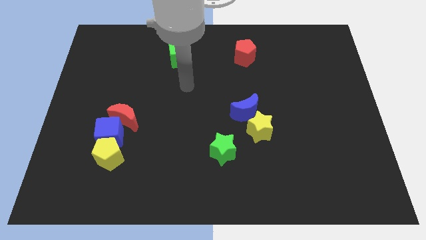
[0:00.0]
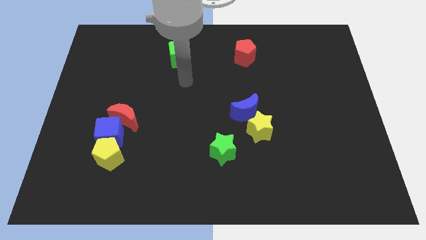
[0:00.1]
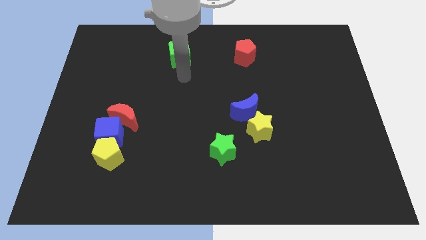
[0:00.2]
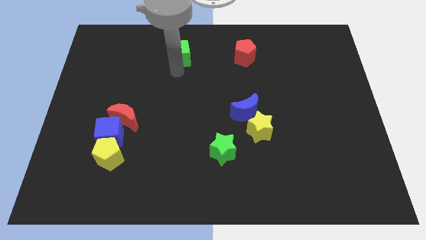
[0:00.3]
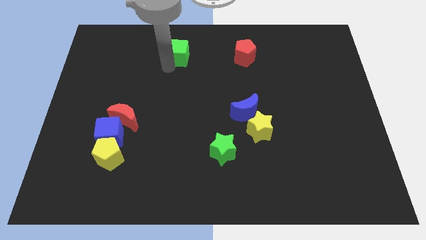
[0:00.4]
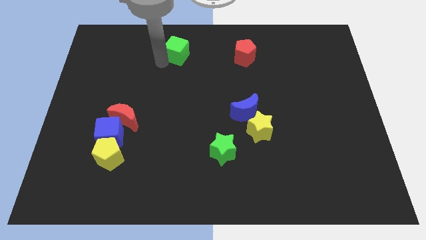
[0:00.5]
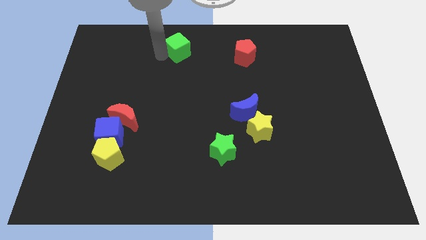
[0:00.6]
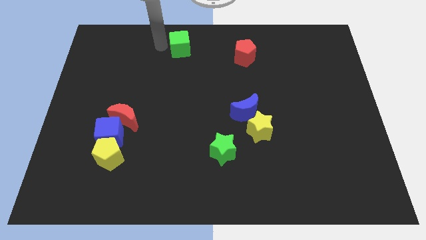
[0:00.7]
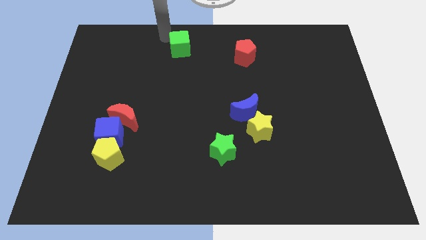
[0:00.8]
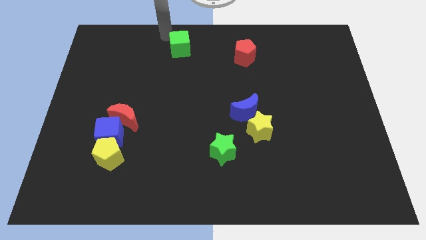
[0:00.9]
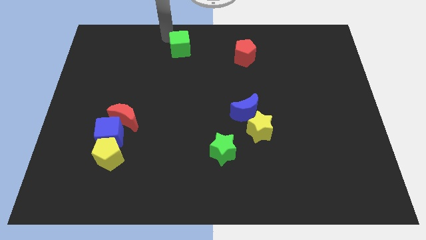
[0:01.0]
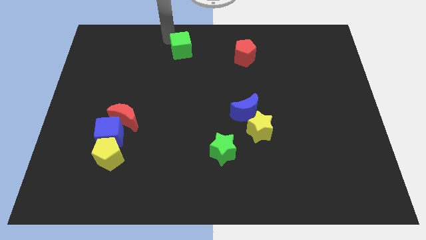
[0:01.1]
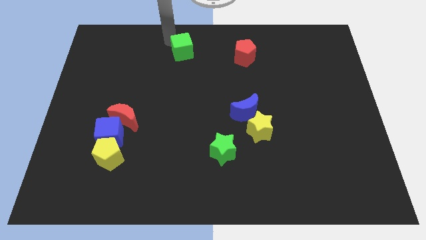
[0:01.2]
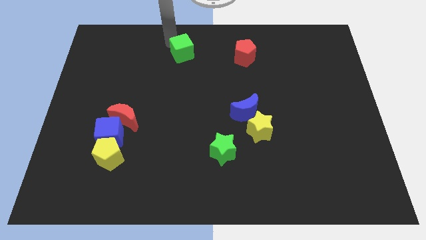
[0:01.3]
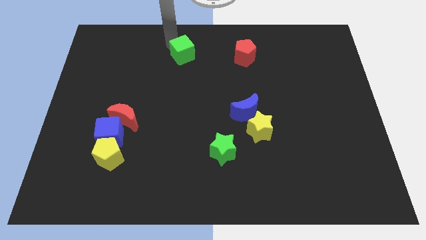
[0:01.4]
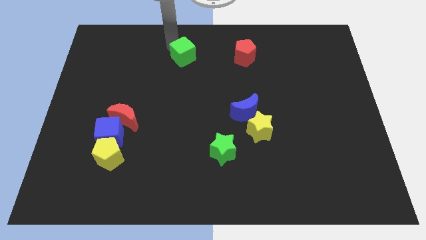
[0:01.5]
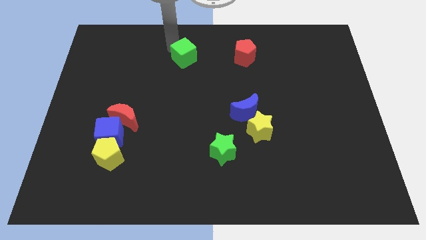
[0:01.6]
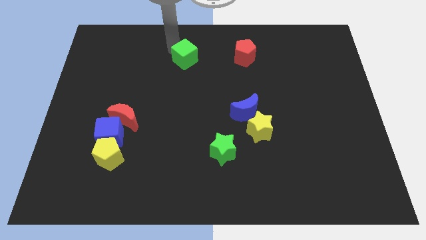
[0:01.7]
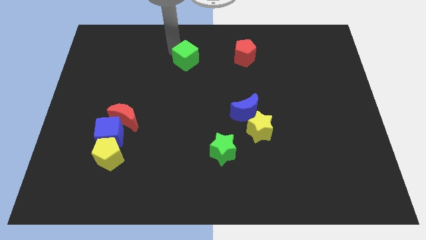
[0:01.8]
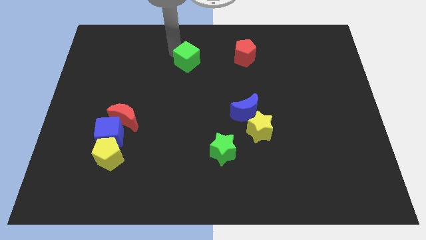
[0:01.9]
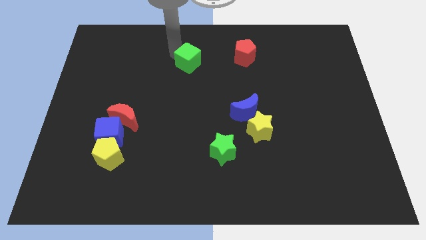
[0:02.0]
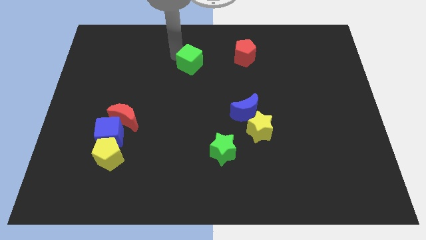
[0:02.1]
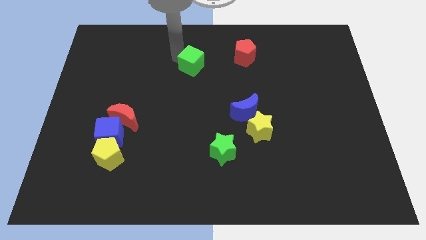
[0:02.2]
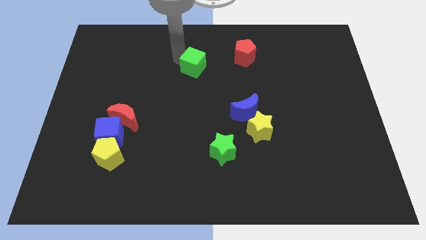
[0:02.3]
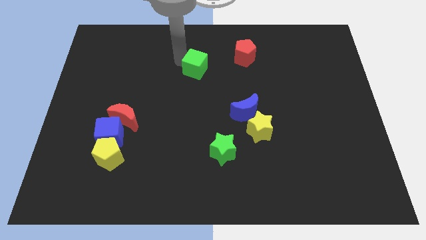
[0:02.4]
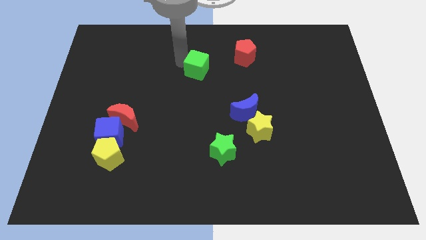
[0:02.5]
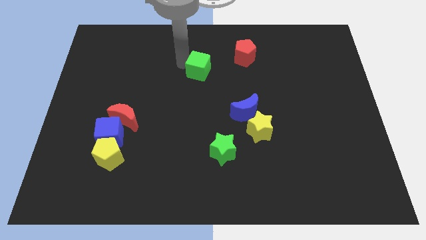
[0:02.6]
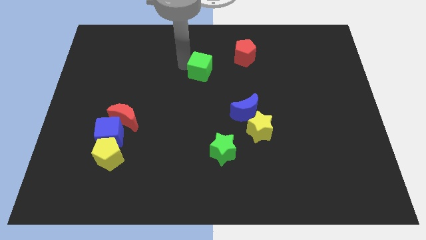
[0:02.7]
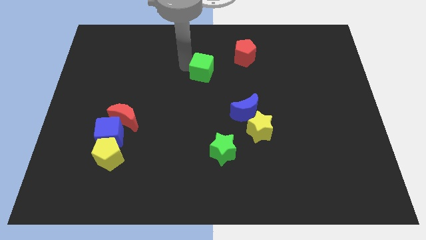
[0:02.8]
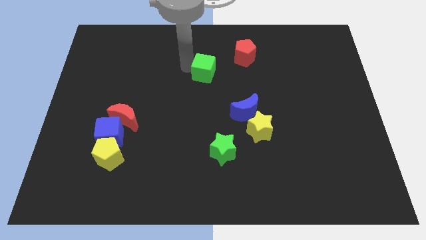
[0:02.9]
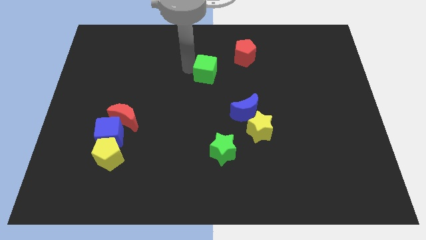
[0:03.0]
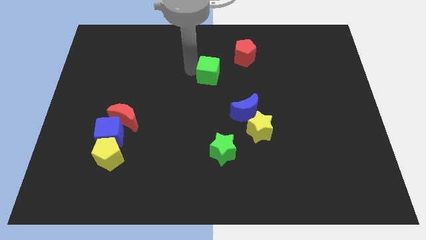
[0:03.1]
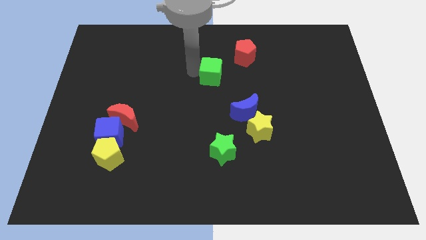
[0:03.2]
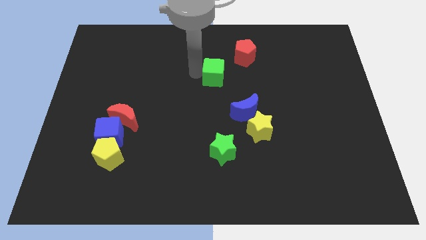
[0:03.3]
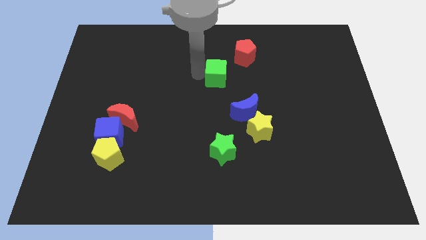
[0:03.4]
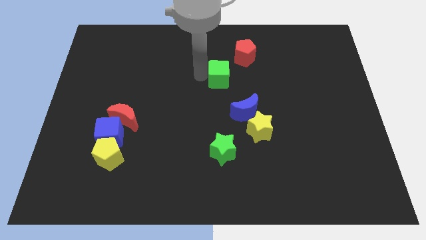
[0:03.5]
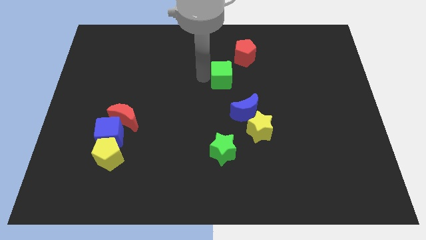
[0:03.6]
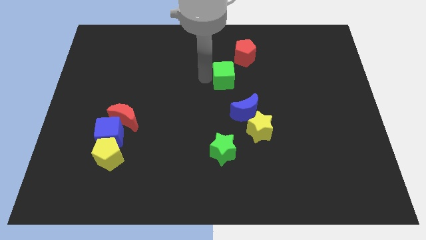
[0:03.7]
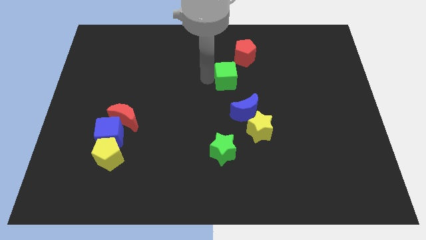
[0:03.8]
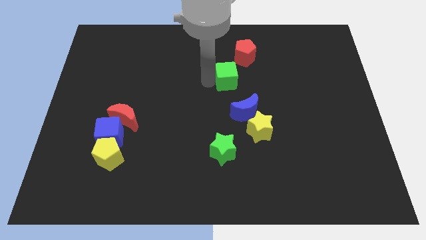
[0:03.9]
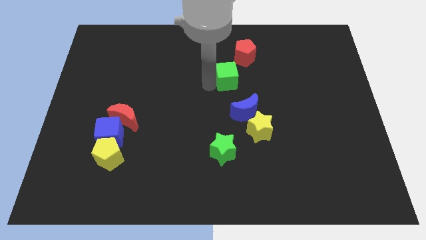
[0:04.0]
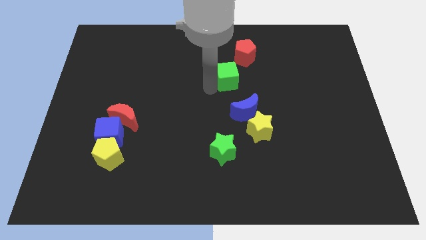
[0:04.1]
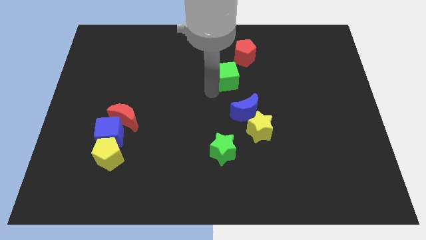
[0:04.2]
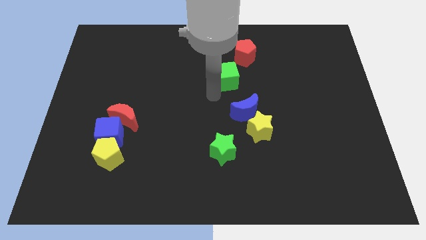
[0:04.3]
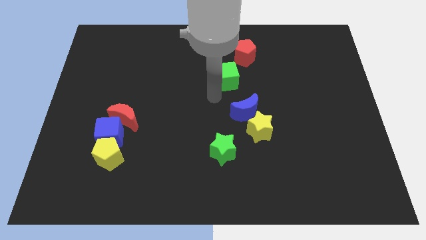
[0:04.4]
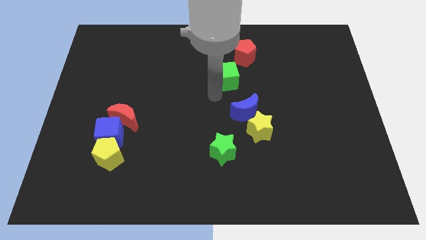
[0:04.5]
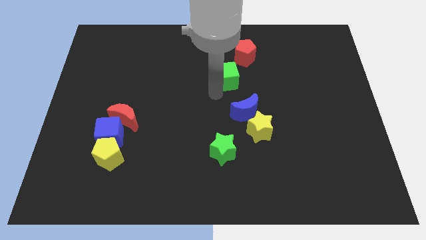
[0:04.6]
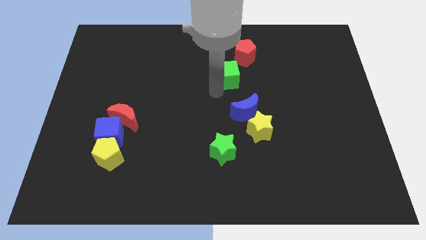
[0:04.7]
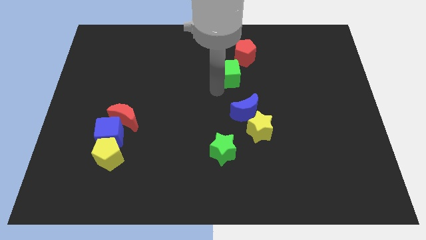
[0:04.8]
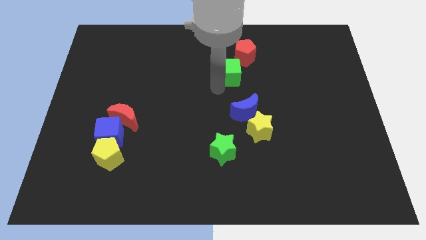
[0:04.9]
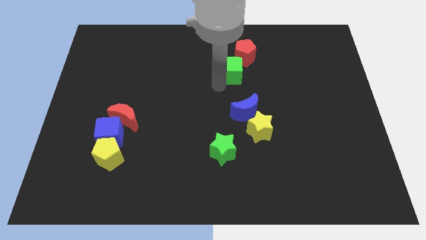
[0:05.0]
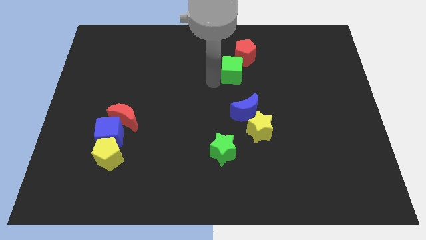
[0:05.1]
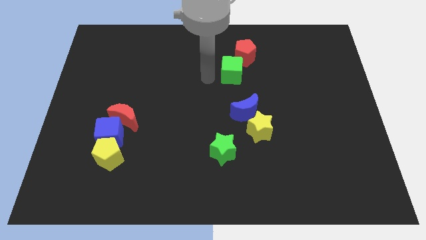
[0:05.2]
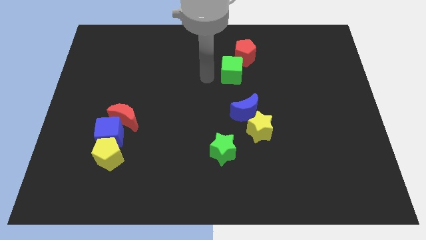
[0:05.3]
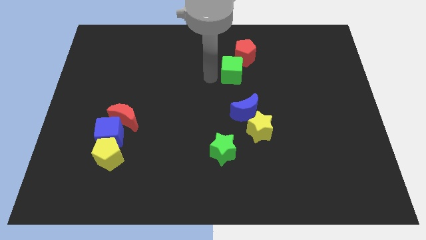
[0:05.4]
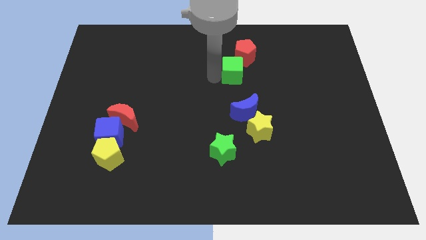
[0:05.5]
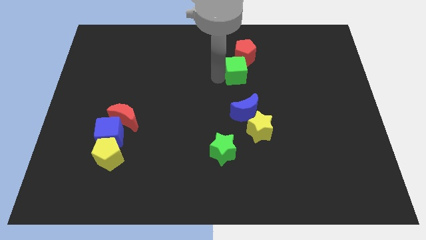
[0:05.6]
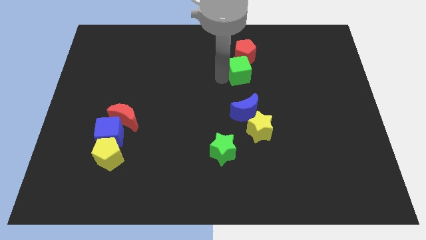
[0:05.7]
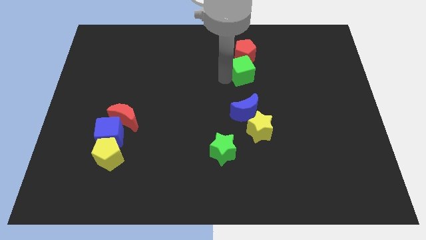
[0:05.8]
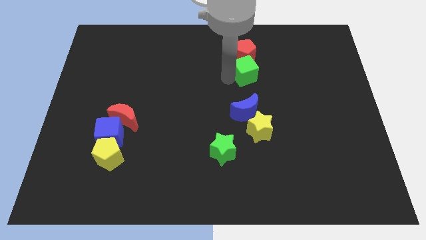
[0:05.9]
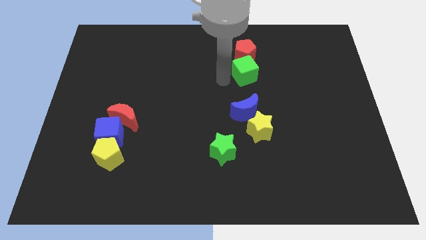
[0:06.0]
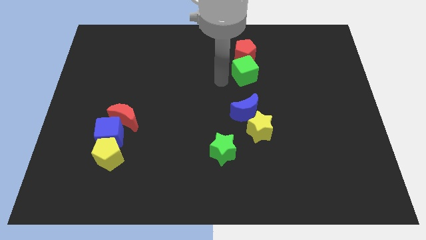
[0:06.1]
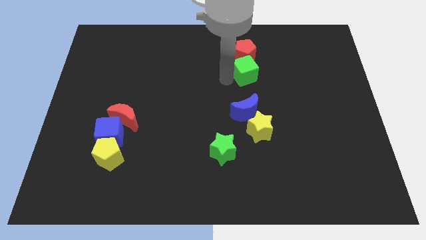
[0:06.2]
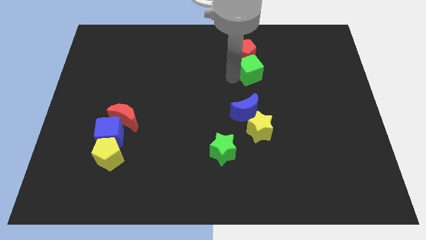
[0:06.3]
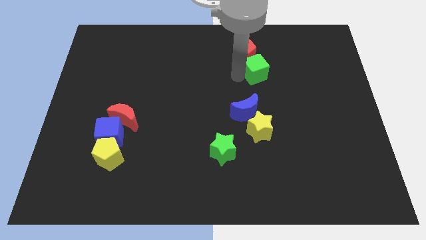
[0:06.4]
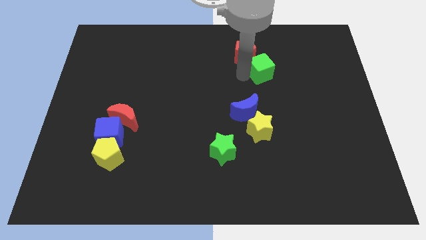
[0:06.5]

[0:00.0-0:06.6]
push the green cube to the right

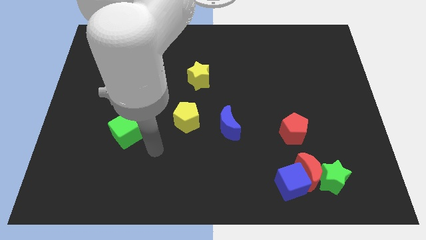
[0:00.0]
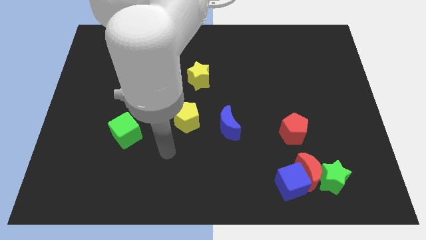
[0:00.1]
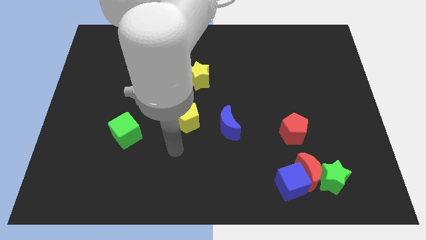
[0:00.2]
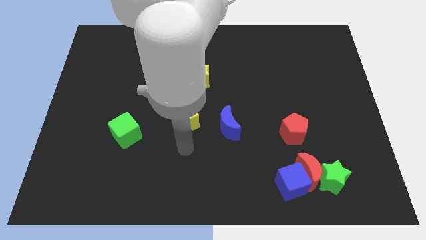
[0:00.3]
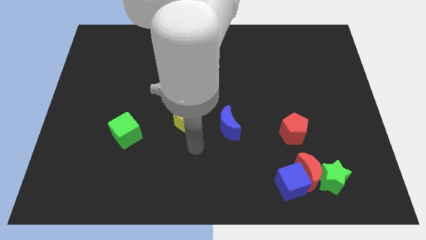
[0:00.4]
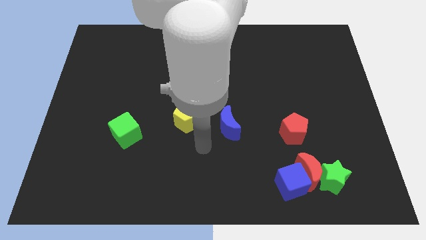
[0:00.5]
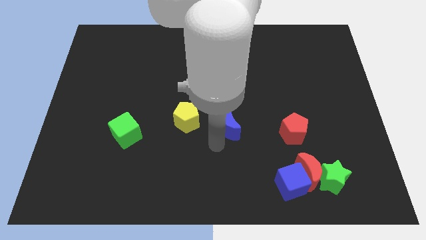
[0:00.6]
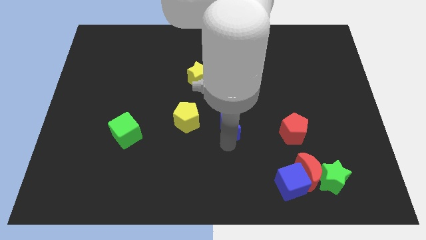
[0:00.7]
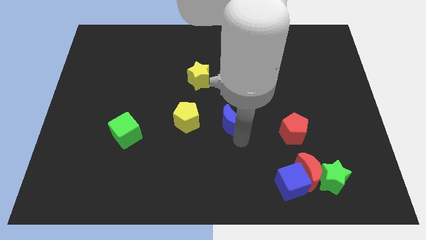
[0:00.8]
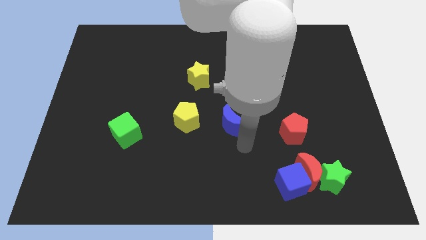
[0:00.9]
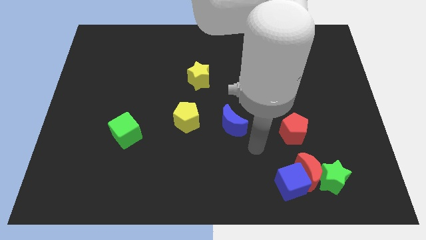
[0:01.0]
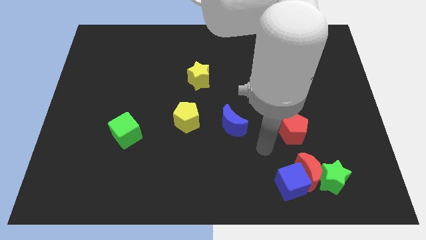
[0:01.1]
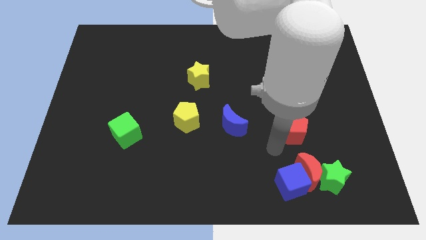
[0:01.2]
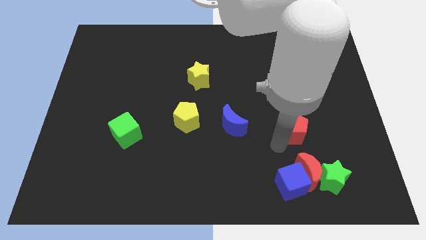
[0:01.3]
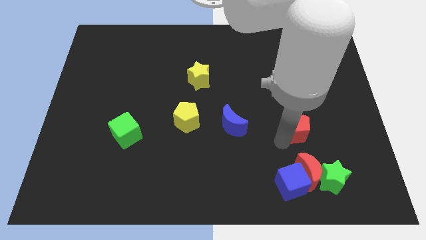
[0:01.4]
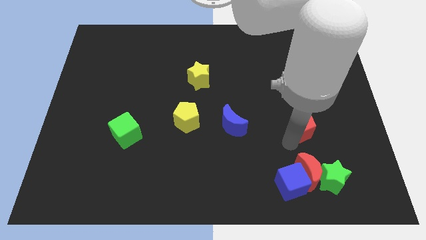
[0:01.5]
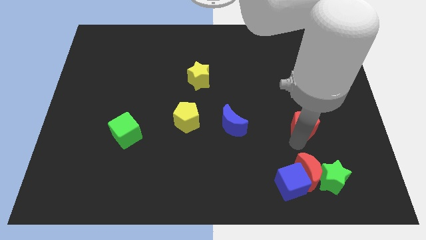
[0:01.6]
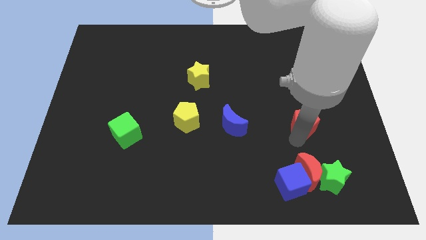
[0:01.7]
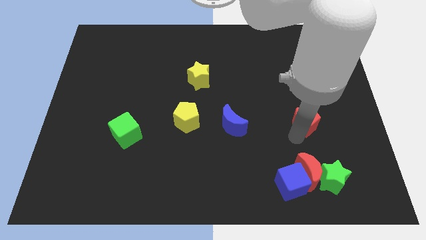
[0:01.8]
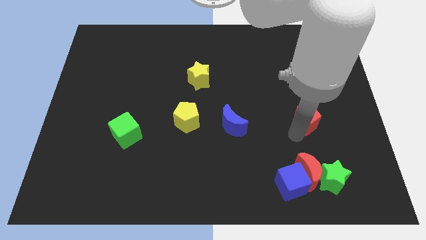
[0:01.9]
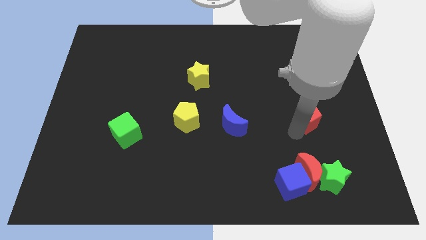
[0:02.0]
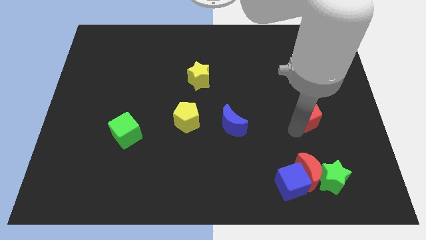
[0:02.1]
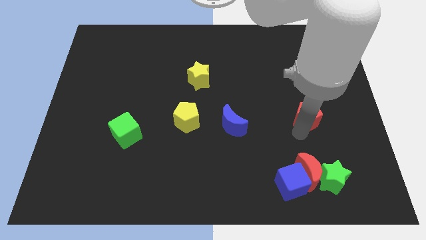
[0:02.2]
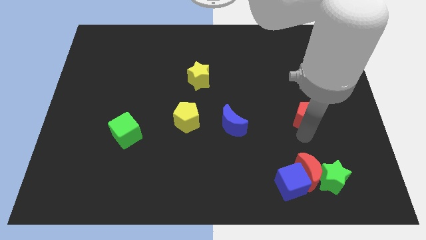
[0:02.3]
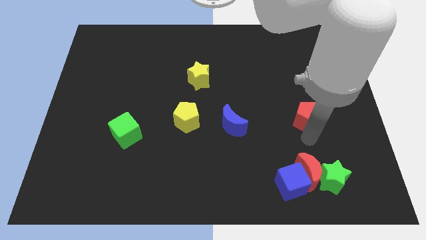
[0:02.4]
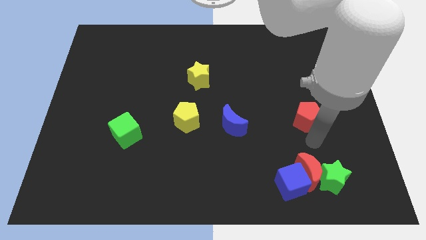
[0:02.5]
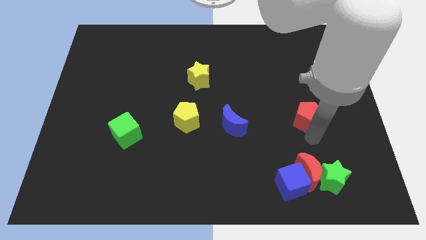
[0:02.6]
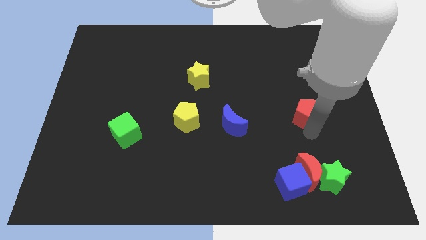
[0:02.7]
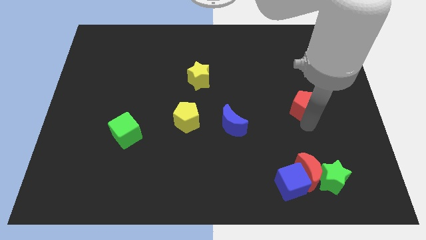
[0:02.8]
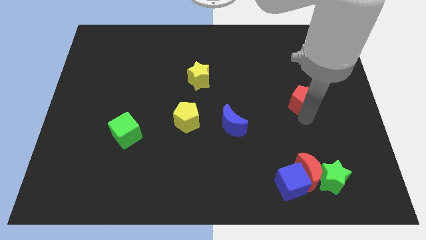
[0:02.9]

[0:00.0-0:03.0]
slide the red pentagon somewhat up
